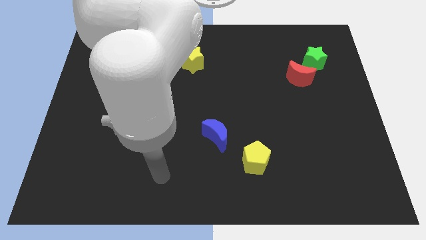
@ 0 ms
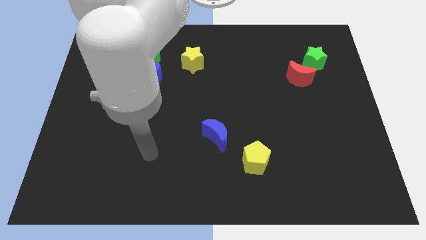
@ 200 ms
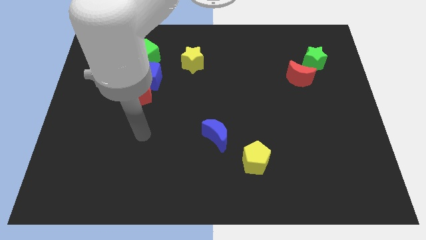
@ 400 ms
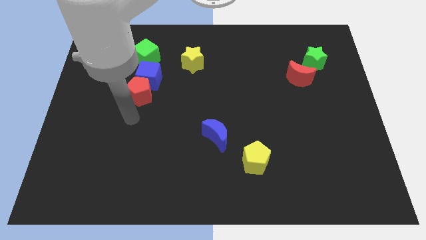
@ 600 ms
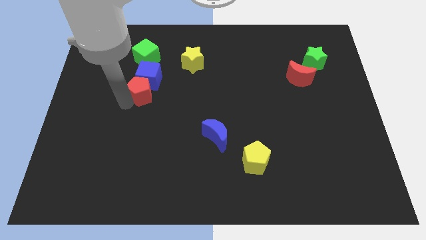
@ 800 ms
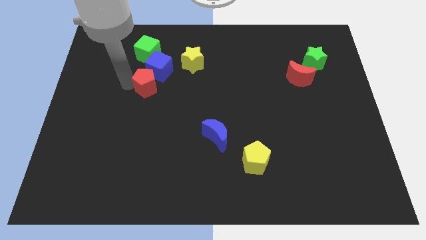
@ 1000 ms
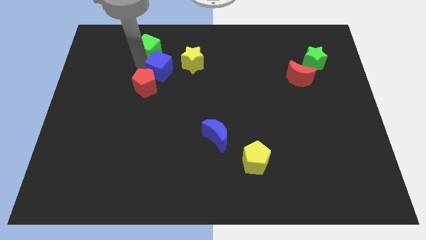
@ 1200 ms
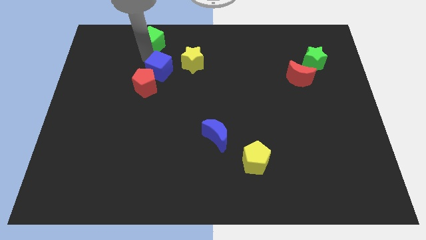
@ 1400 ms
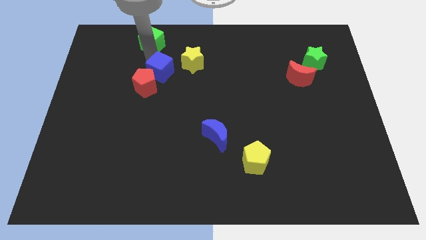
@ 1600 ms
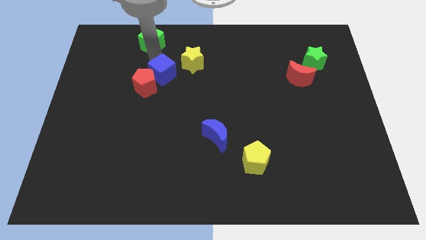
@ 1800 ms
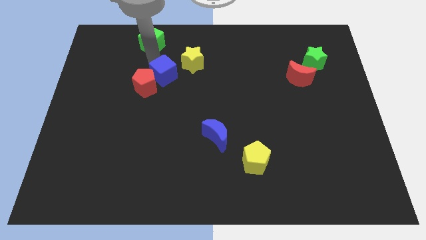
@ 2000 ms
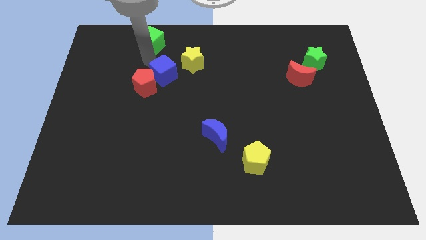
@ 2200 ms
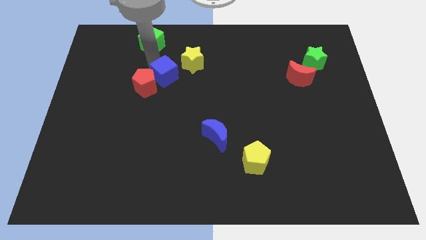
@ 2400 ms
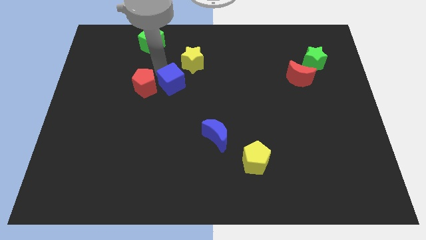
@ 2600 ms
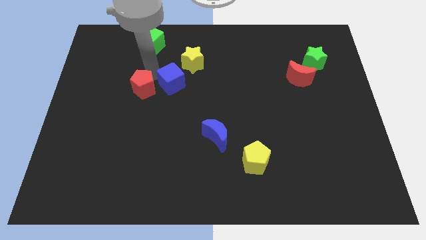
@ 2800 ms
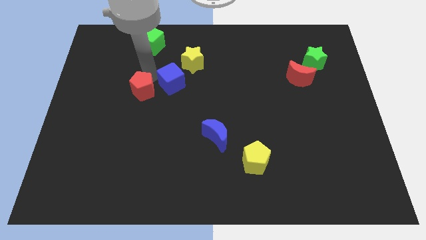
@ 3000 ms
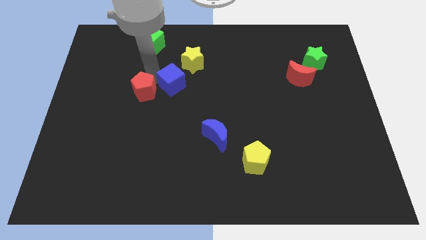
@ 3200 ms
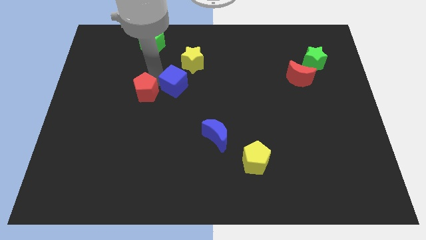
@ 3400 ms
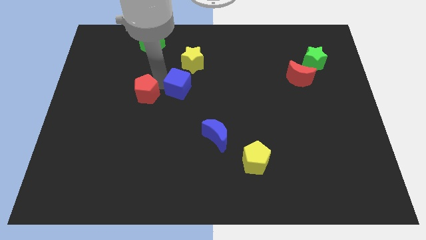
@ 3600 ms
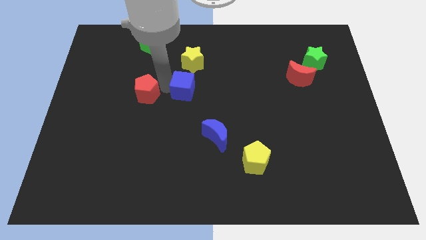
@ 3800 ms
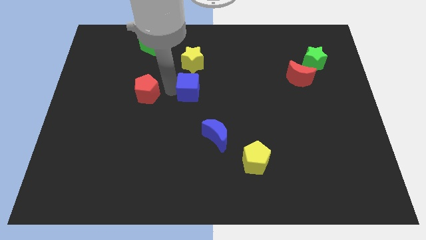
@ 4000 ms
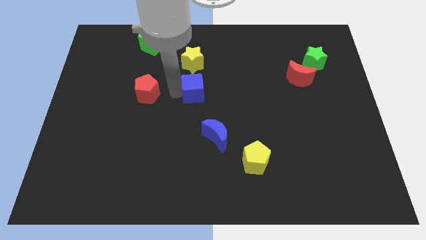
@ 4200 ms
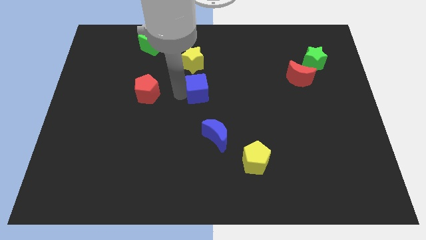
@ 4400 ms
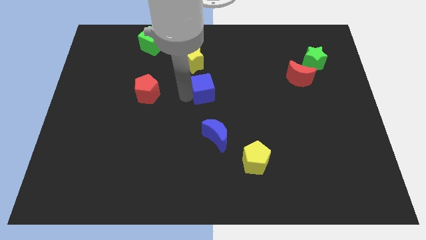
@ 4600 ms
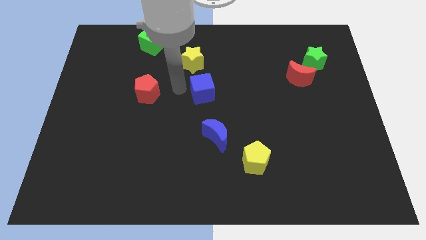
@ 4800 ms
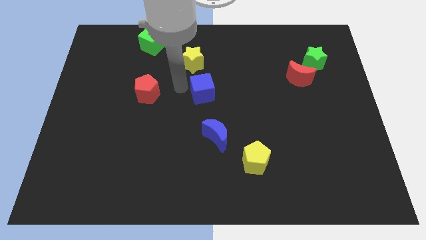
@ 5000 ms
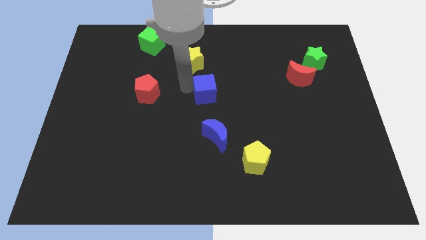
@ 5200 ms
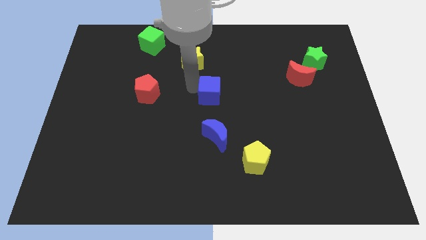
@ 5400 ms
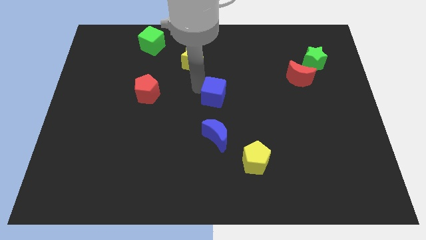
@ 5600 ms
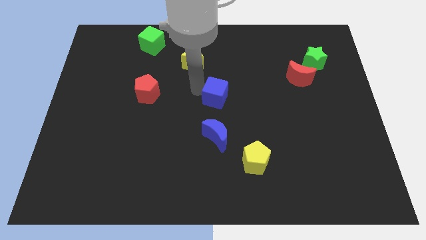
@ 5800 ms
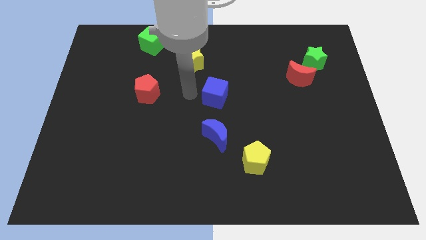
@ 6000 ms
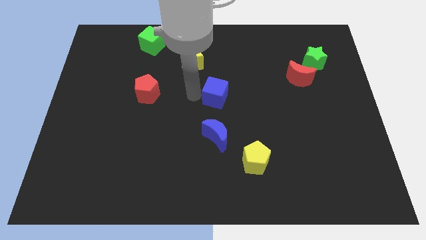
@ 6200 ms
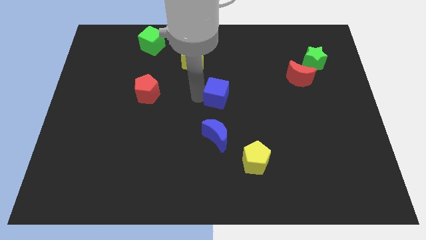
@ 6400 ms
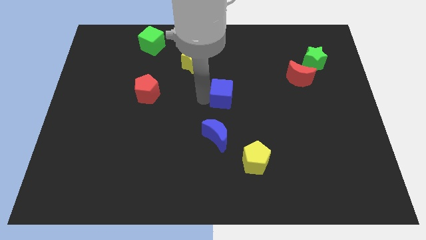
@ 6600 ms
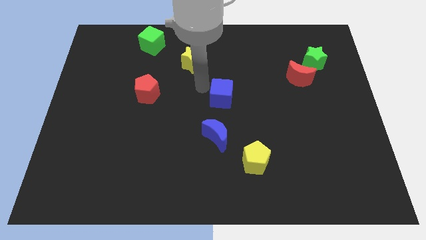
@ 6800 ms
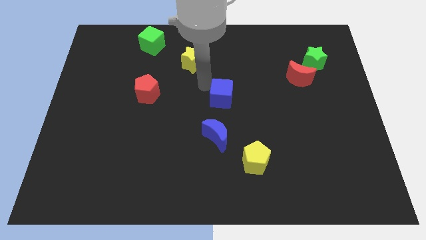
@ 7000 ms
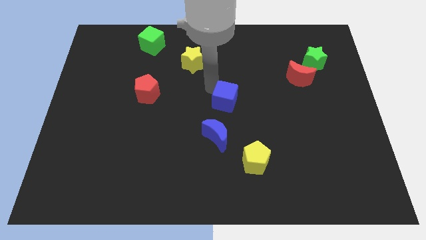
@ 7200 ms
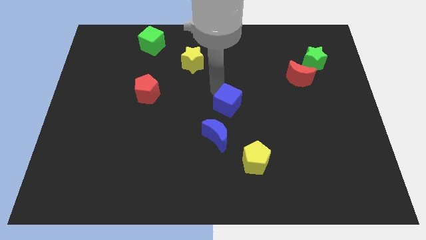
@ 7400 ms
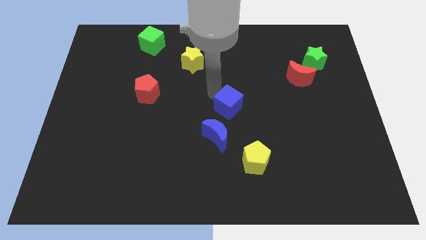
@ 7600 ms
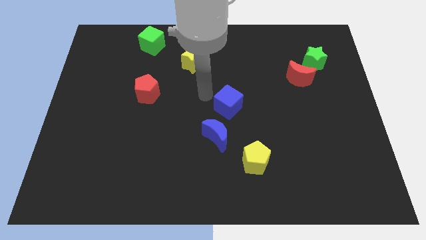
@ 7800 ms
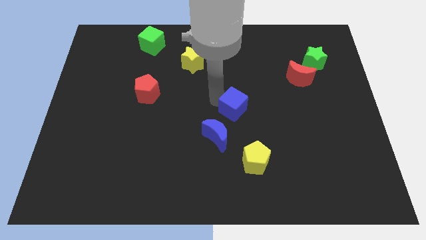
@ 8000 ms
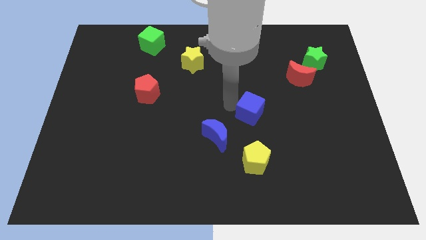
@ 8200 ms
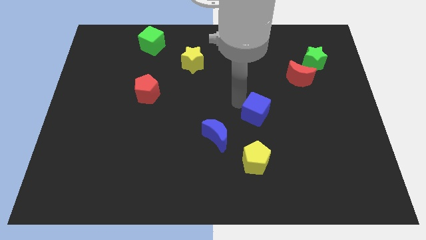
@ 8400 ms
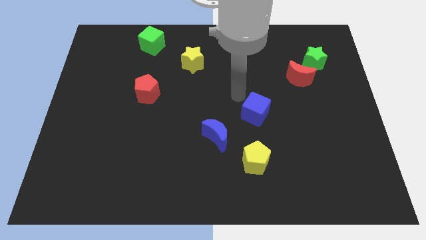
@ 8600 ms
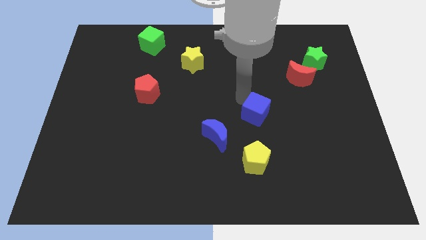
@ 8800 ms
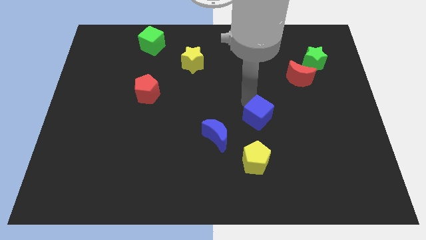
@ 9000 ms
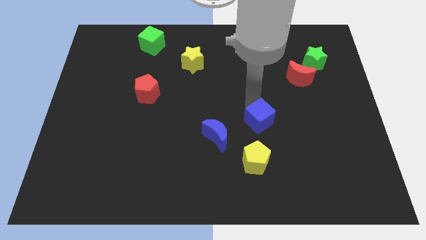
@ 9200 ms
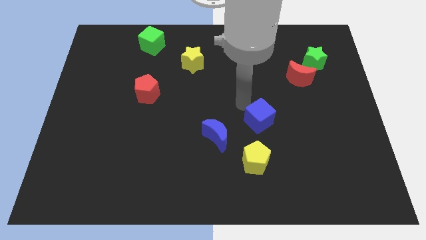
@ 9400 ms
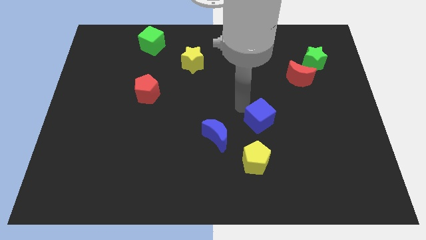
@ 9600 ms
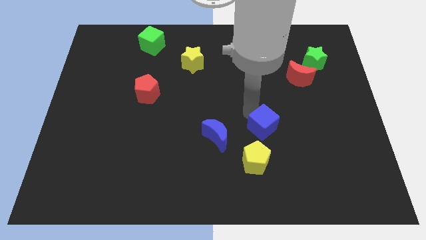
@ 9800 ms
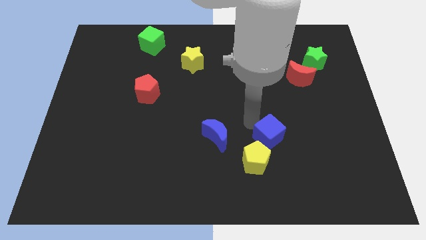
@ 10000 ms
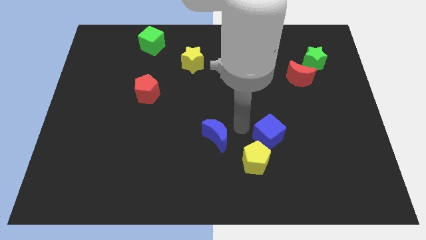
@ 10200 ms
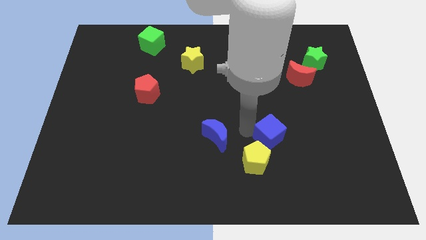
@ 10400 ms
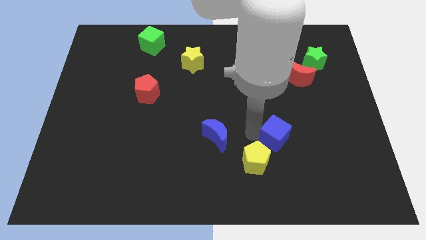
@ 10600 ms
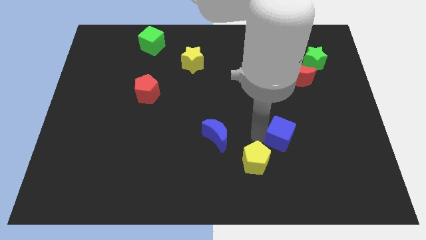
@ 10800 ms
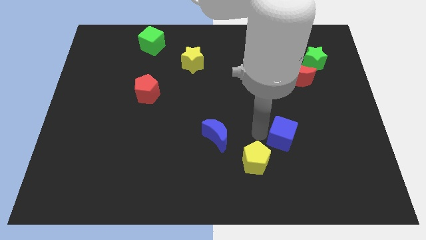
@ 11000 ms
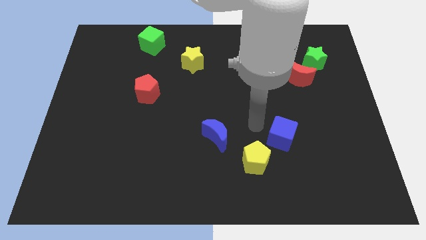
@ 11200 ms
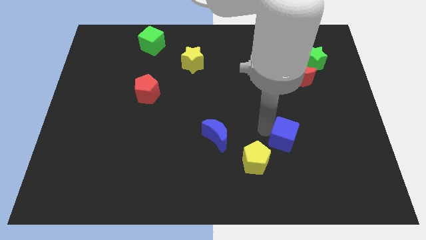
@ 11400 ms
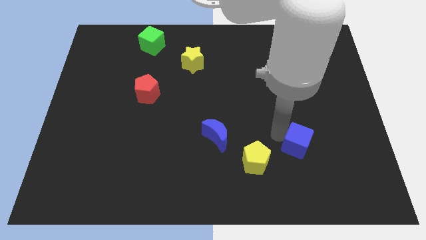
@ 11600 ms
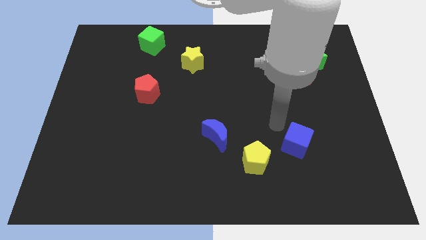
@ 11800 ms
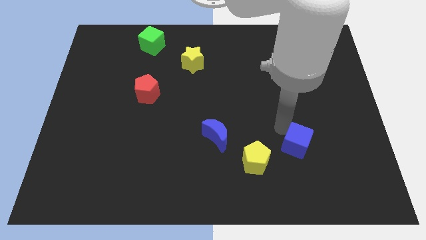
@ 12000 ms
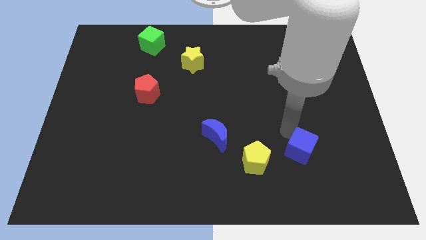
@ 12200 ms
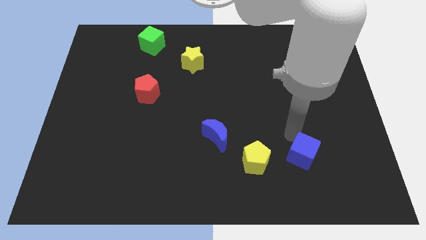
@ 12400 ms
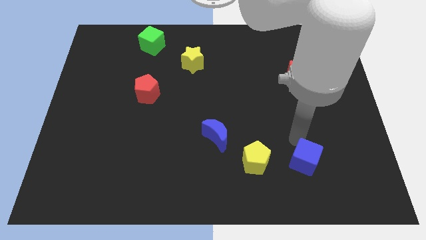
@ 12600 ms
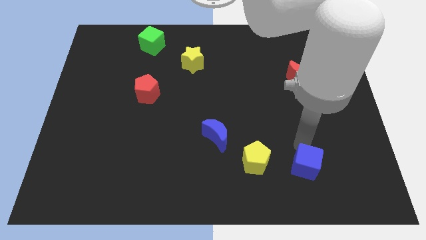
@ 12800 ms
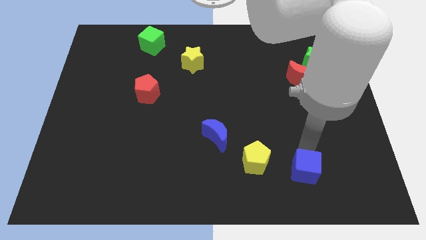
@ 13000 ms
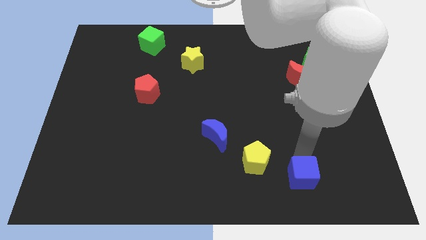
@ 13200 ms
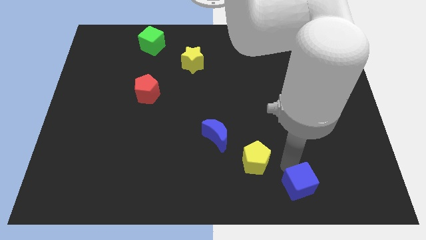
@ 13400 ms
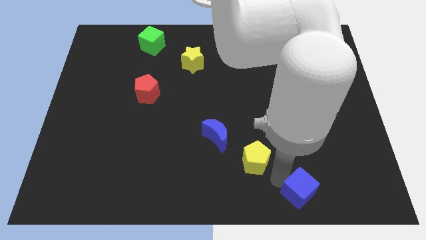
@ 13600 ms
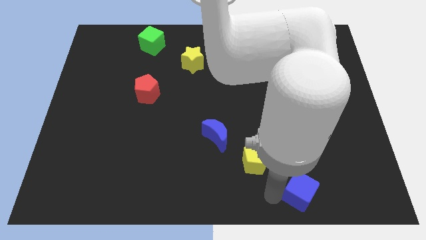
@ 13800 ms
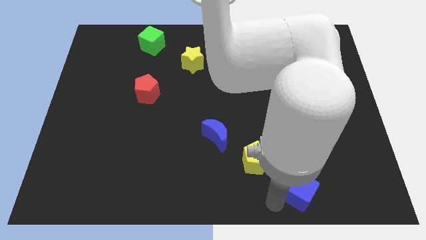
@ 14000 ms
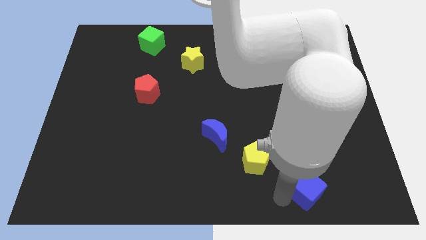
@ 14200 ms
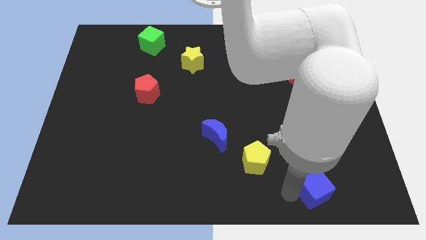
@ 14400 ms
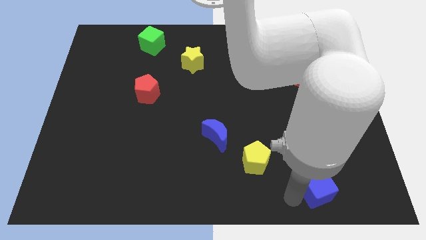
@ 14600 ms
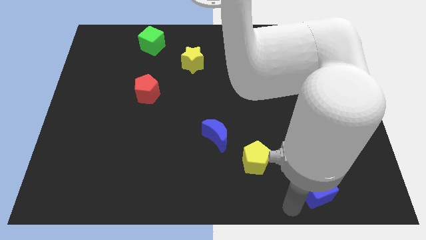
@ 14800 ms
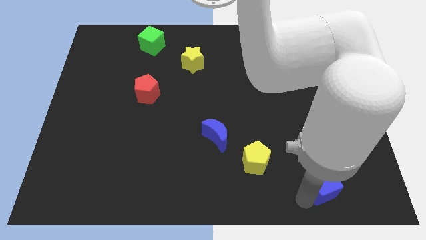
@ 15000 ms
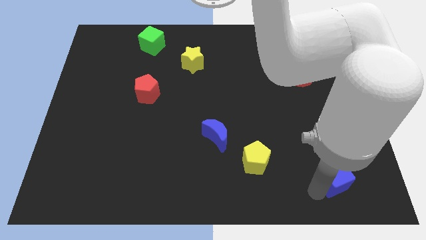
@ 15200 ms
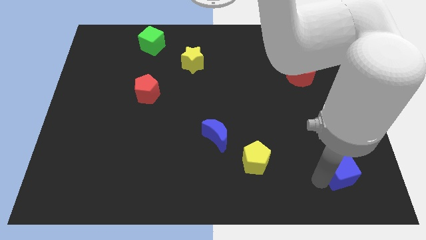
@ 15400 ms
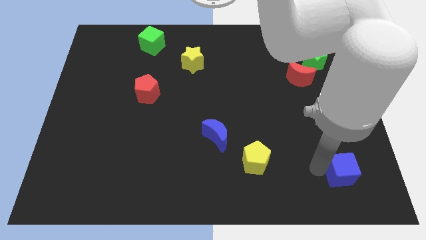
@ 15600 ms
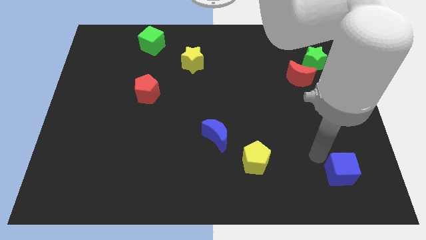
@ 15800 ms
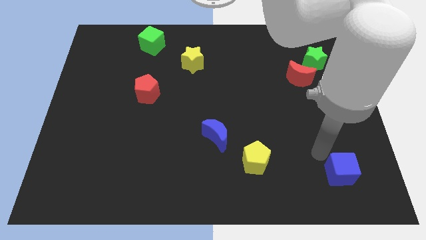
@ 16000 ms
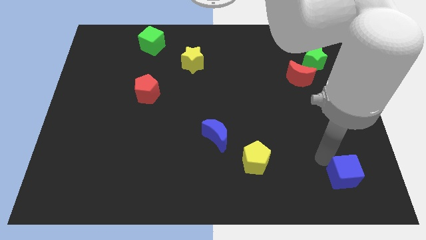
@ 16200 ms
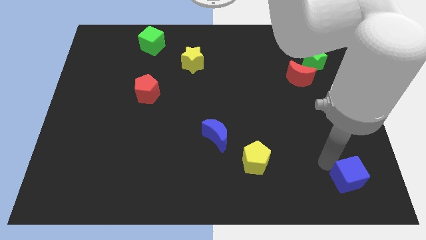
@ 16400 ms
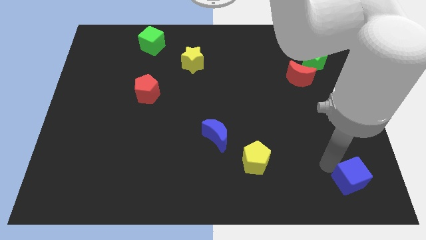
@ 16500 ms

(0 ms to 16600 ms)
move the blue cube to the bottom right
